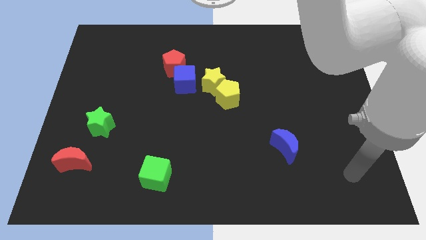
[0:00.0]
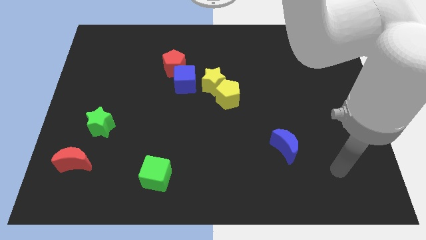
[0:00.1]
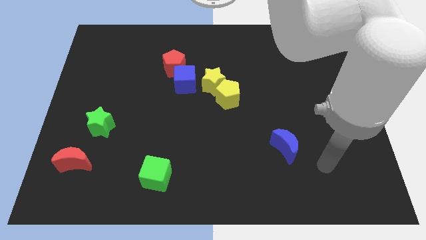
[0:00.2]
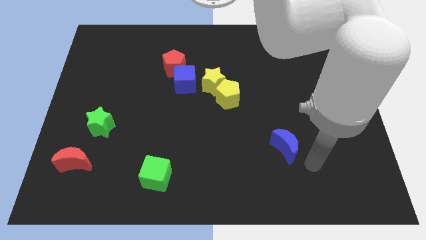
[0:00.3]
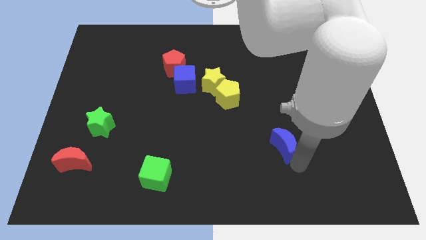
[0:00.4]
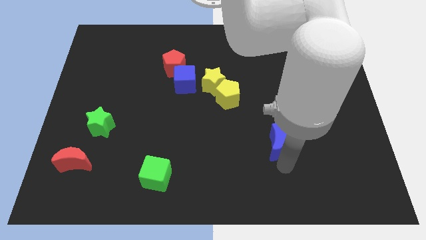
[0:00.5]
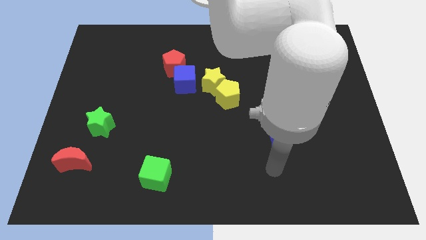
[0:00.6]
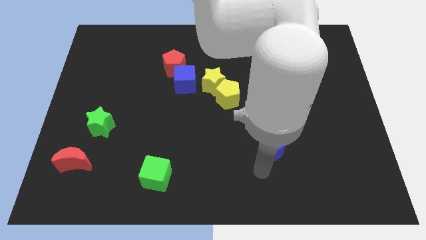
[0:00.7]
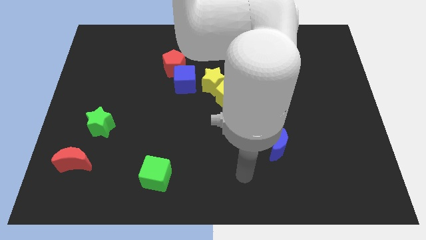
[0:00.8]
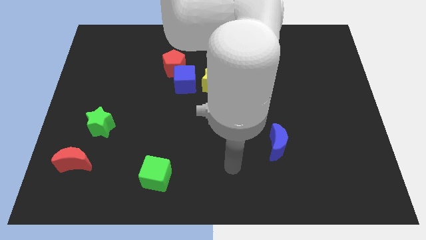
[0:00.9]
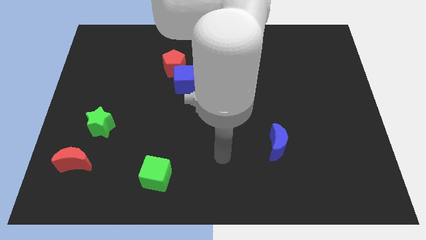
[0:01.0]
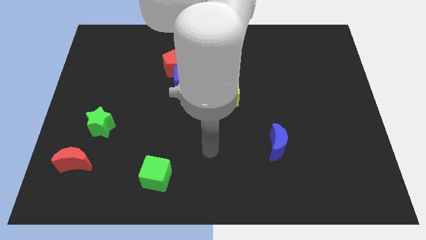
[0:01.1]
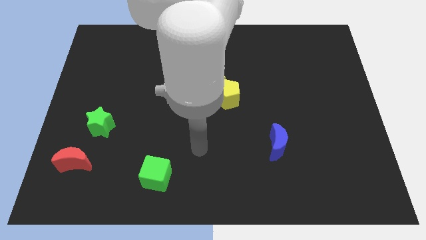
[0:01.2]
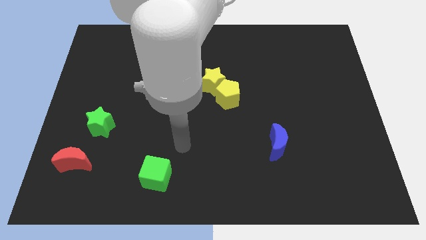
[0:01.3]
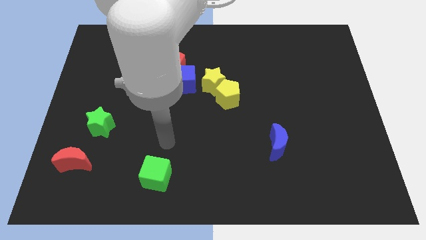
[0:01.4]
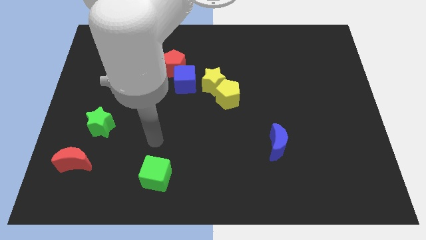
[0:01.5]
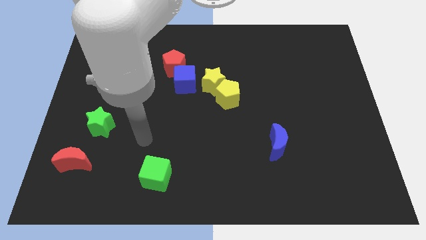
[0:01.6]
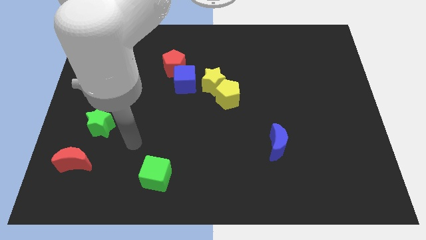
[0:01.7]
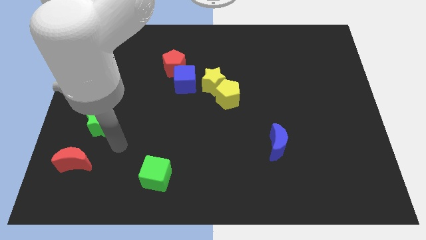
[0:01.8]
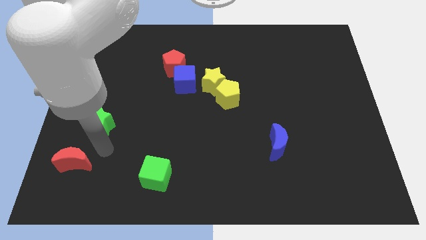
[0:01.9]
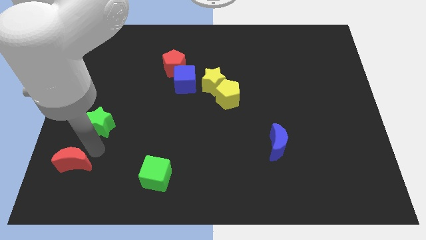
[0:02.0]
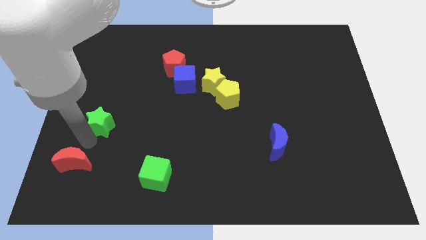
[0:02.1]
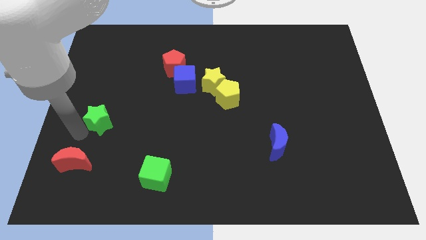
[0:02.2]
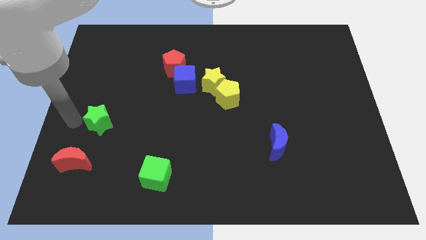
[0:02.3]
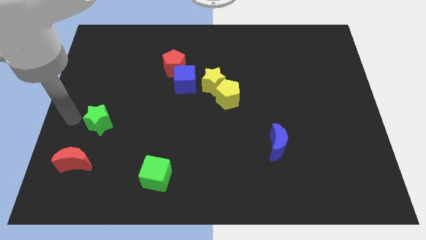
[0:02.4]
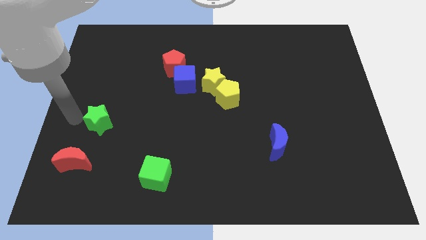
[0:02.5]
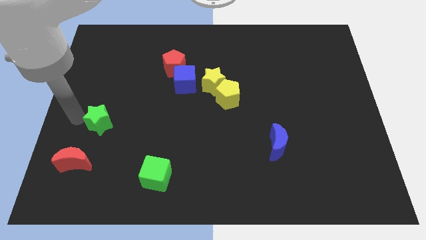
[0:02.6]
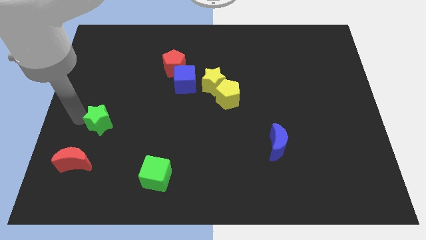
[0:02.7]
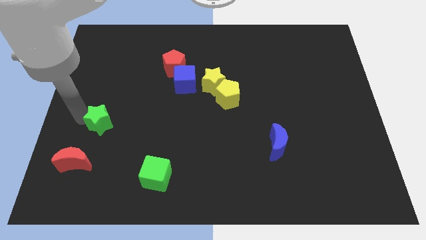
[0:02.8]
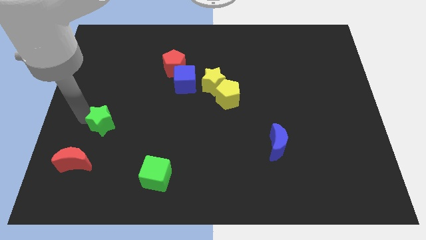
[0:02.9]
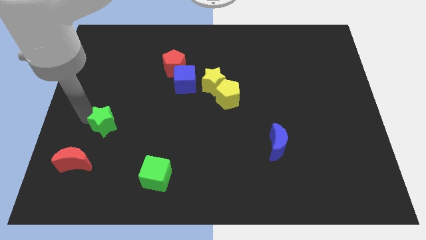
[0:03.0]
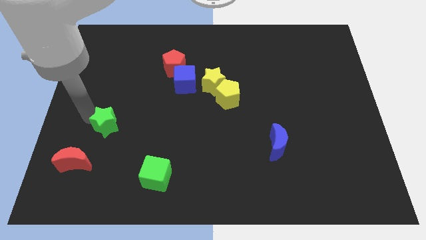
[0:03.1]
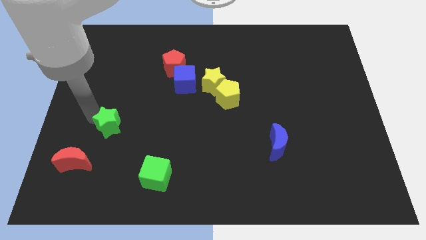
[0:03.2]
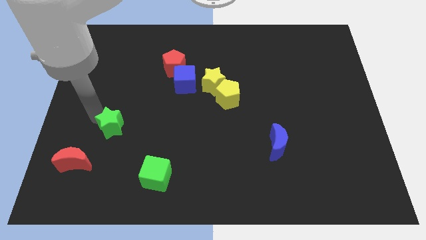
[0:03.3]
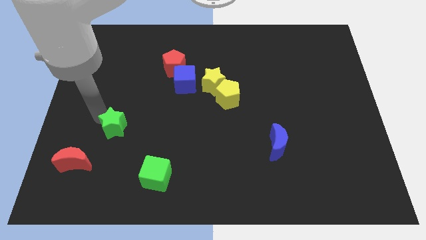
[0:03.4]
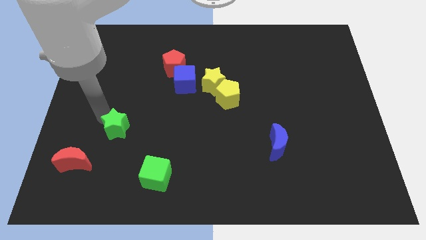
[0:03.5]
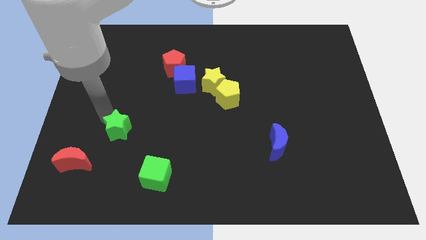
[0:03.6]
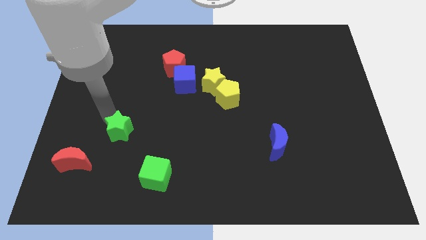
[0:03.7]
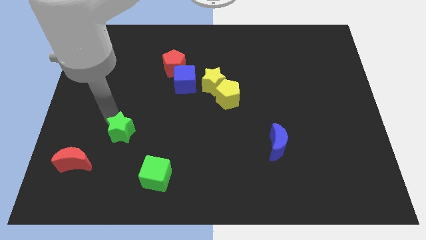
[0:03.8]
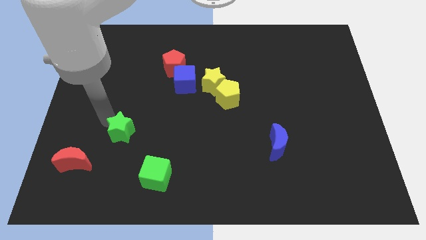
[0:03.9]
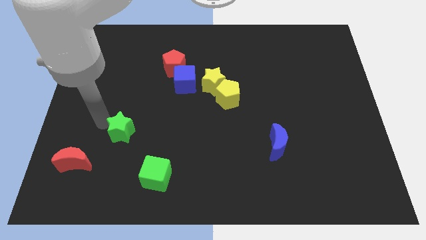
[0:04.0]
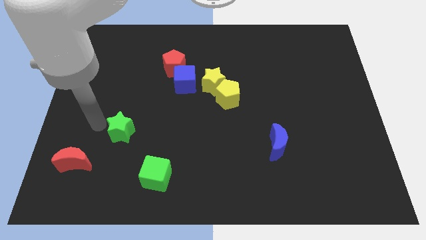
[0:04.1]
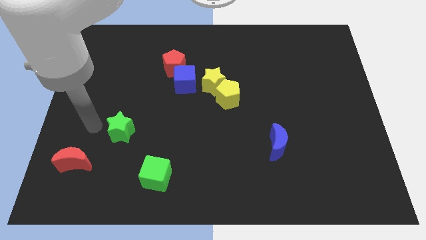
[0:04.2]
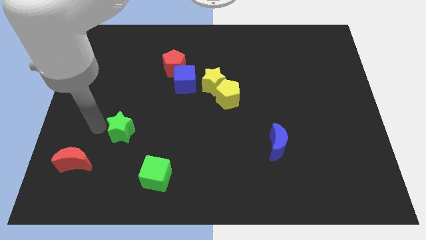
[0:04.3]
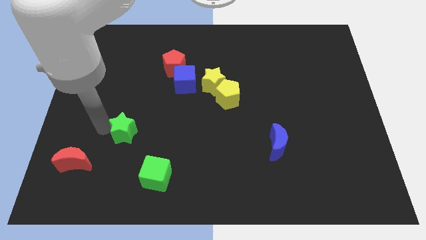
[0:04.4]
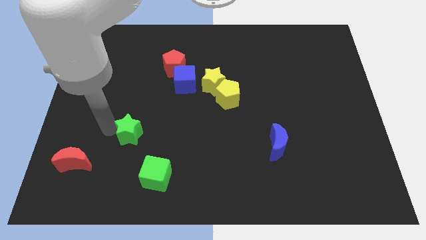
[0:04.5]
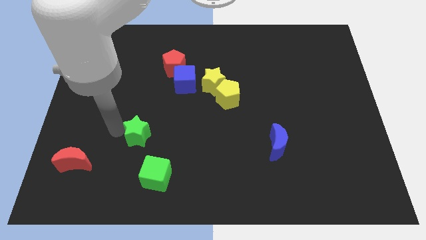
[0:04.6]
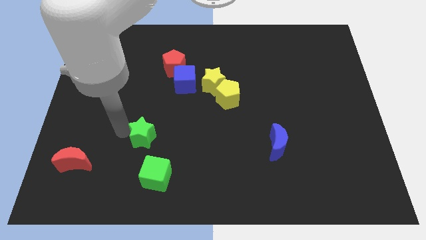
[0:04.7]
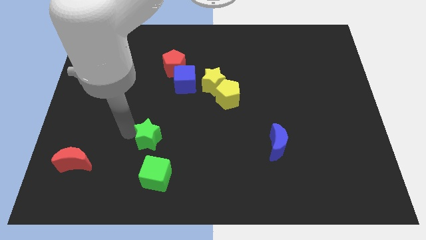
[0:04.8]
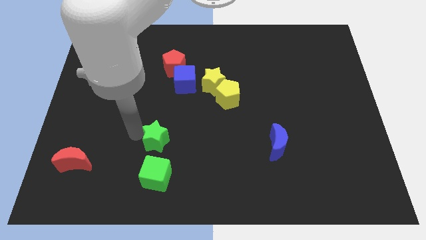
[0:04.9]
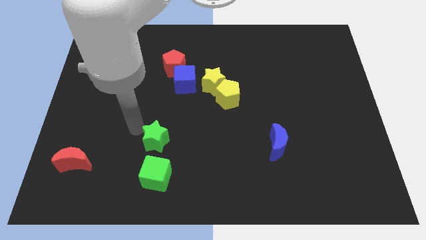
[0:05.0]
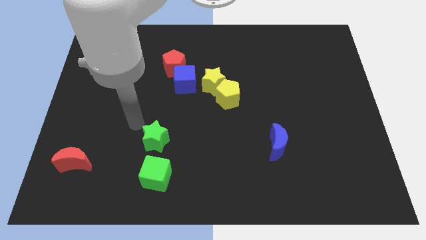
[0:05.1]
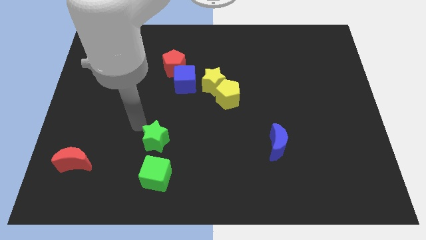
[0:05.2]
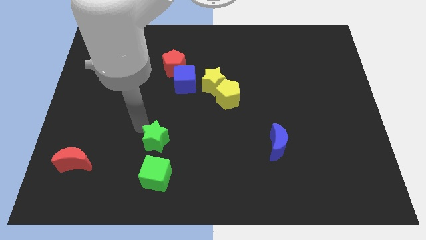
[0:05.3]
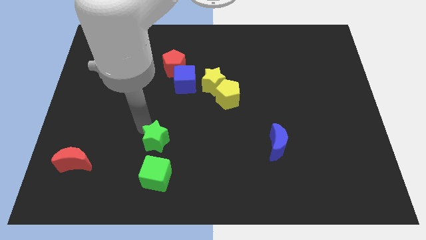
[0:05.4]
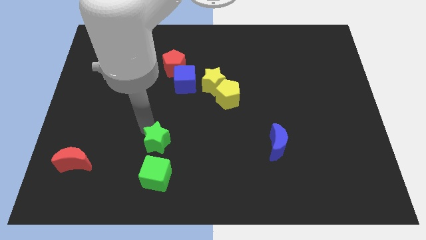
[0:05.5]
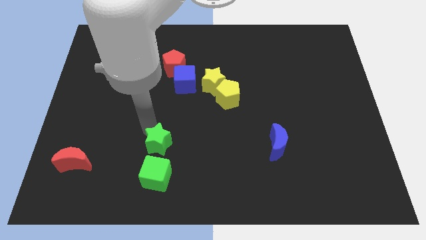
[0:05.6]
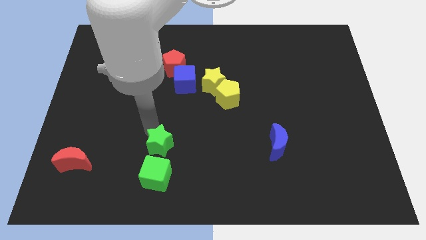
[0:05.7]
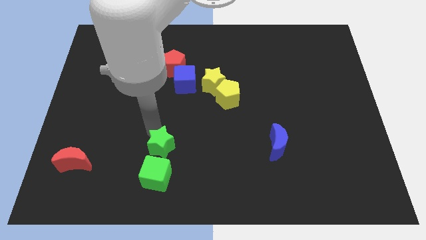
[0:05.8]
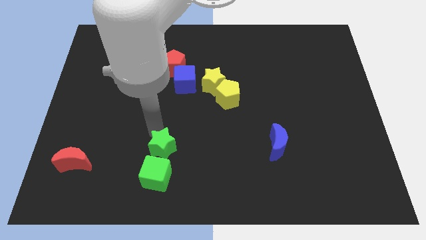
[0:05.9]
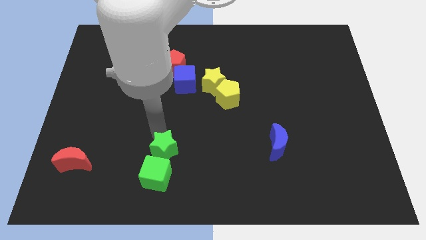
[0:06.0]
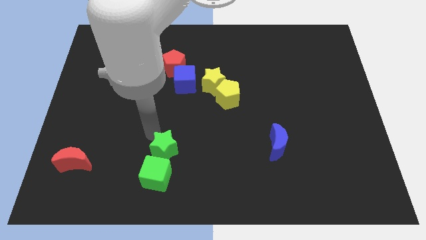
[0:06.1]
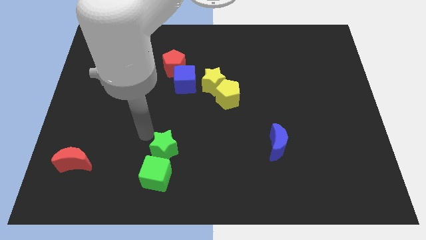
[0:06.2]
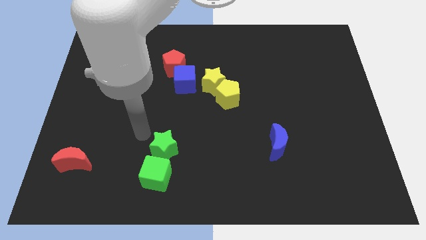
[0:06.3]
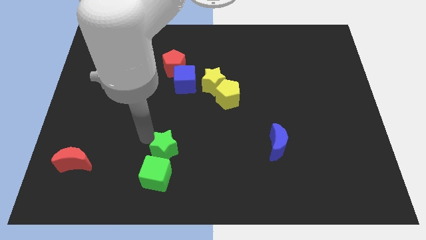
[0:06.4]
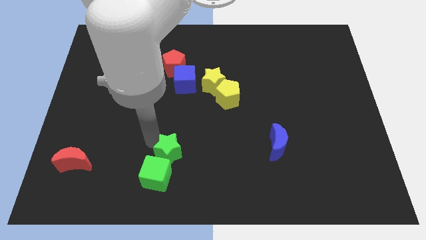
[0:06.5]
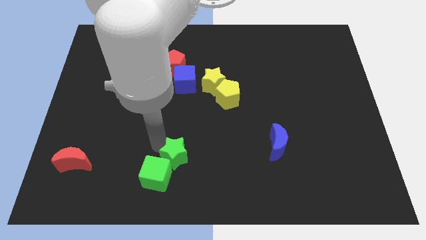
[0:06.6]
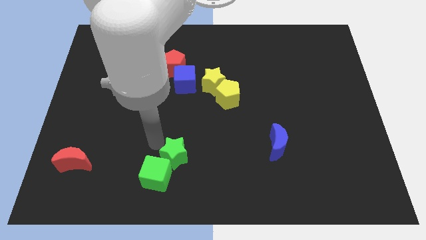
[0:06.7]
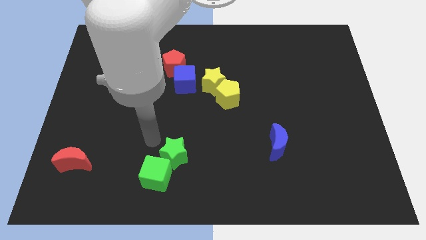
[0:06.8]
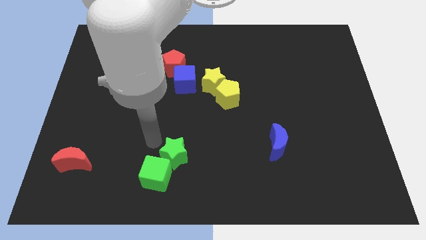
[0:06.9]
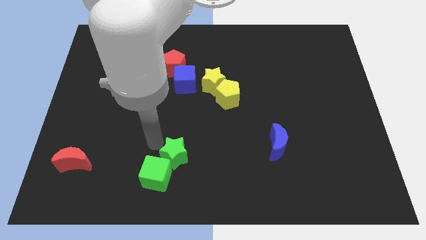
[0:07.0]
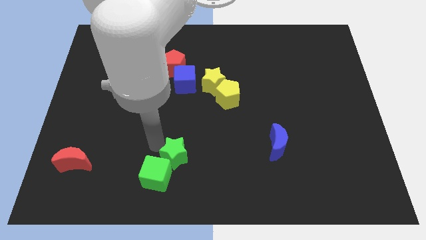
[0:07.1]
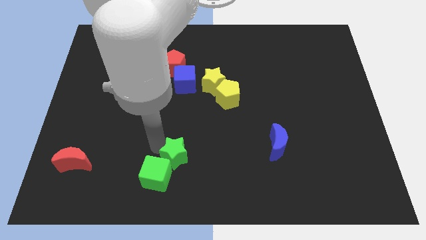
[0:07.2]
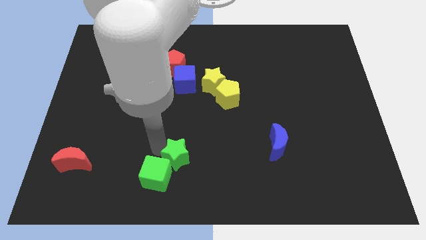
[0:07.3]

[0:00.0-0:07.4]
push the green star just right of the green cube

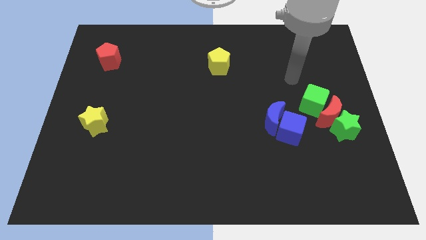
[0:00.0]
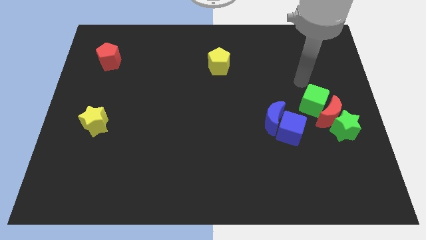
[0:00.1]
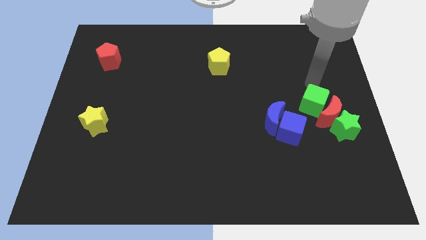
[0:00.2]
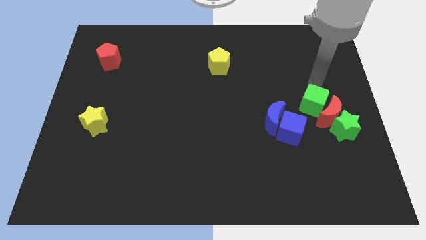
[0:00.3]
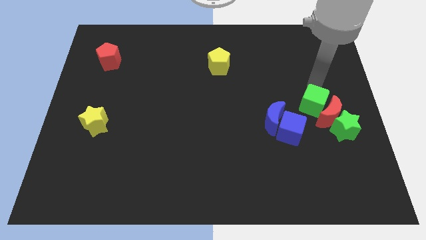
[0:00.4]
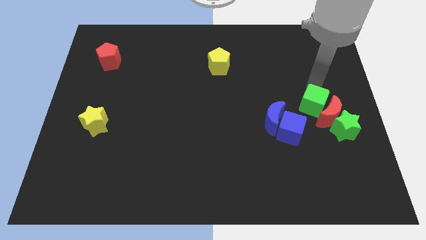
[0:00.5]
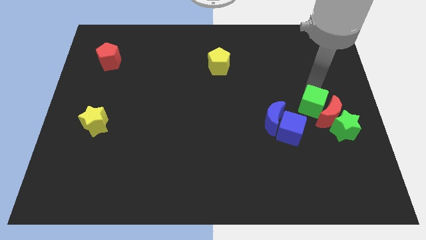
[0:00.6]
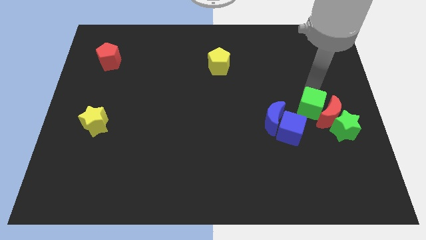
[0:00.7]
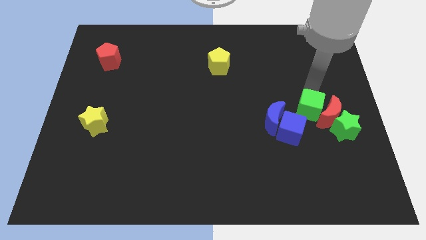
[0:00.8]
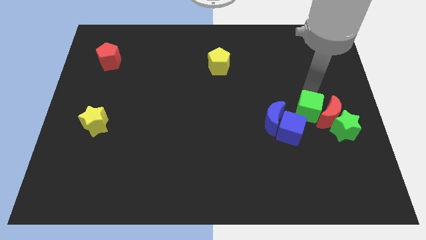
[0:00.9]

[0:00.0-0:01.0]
put the green cube to the bottom left side of the red moon
